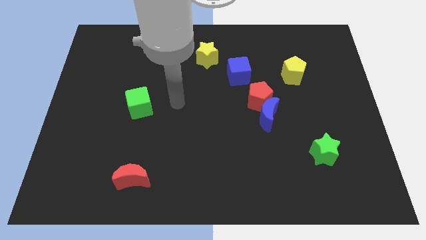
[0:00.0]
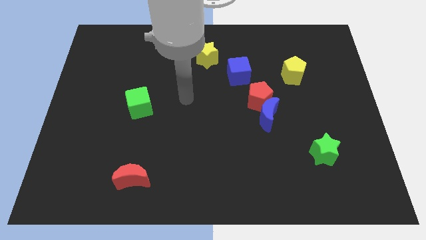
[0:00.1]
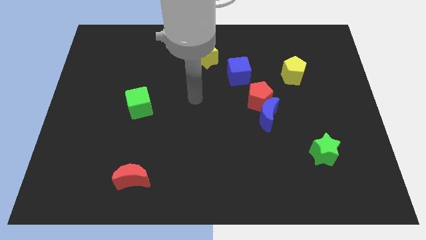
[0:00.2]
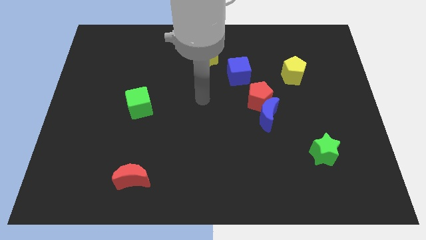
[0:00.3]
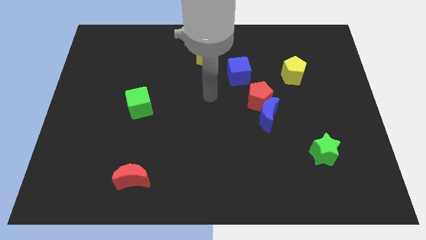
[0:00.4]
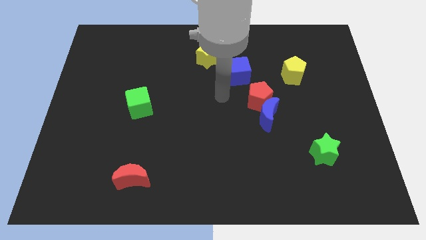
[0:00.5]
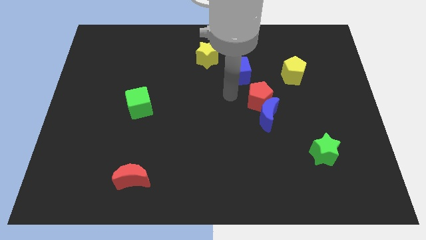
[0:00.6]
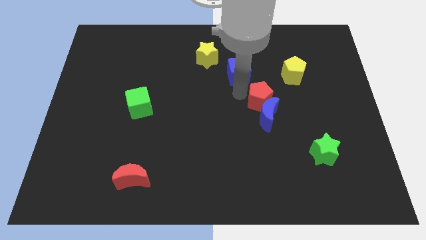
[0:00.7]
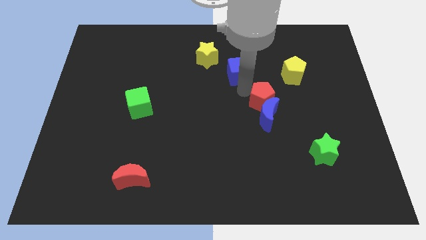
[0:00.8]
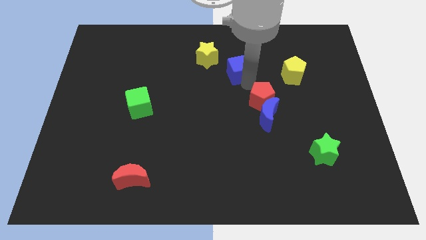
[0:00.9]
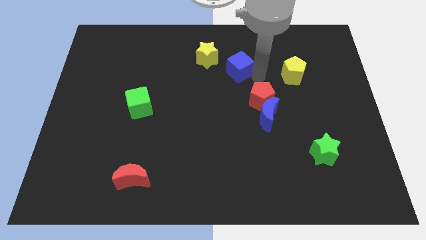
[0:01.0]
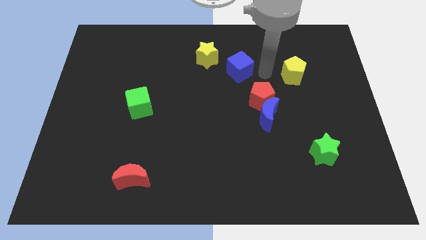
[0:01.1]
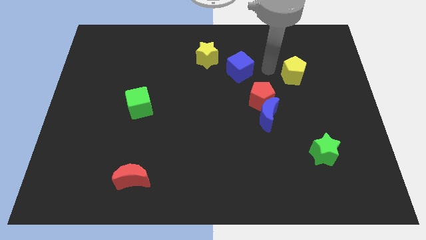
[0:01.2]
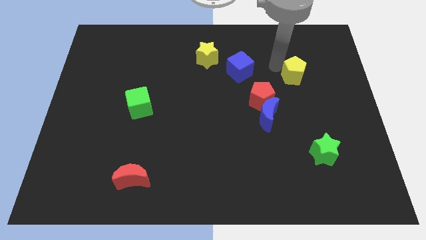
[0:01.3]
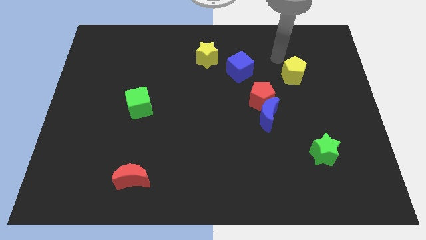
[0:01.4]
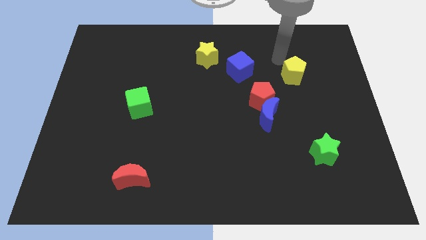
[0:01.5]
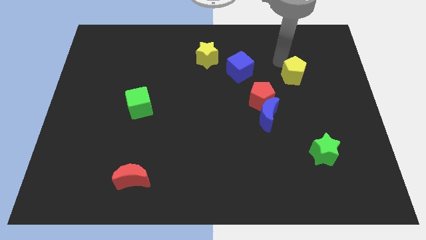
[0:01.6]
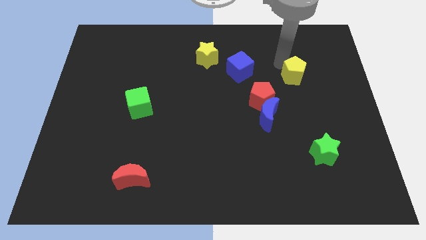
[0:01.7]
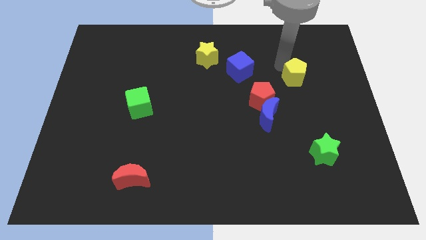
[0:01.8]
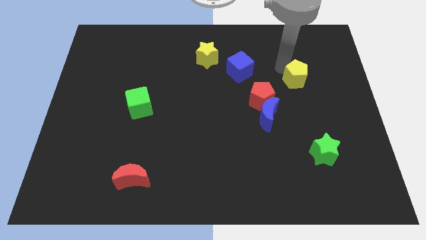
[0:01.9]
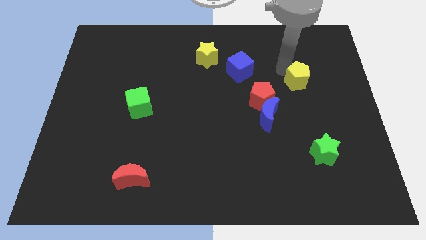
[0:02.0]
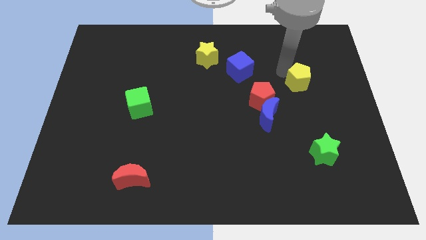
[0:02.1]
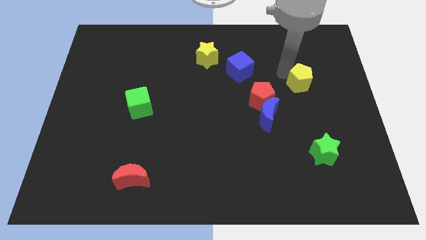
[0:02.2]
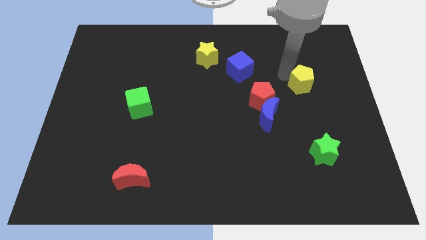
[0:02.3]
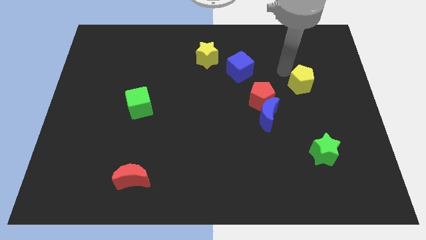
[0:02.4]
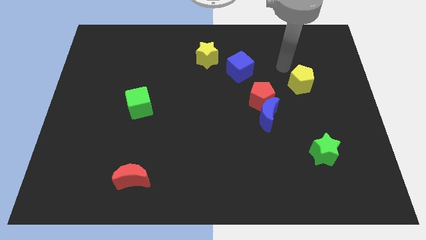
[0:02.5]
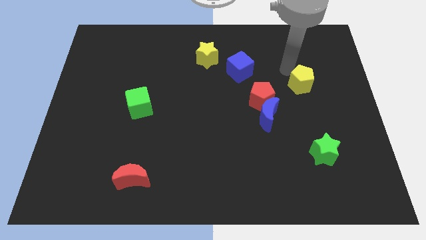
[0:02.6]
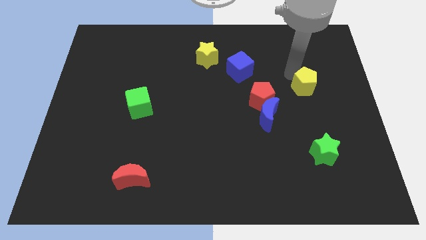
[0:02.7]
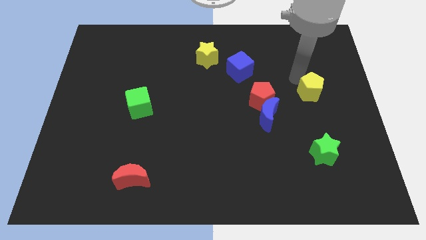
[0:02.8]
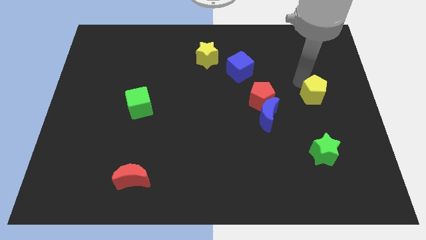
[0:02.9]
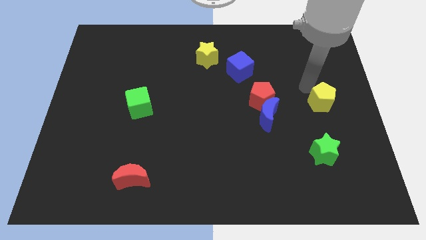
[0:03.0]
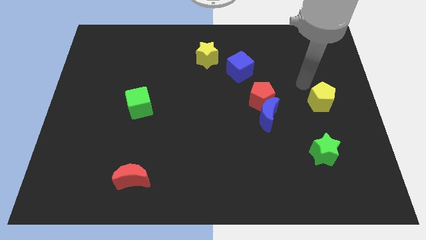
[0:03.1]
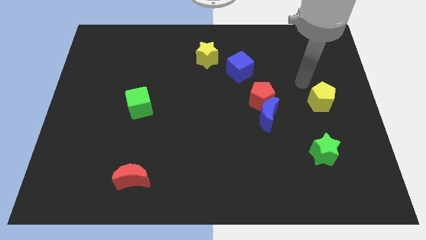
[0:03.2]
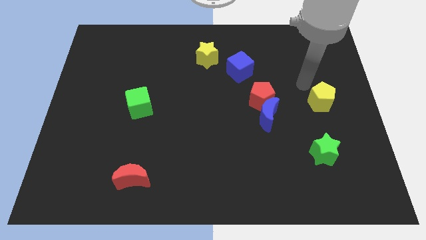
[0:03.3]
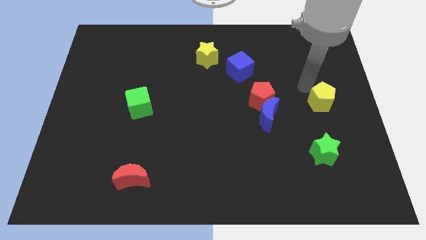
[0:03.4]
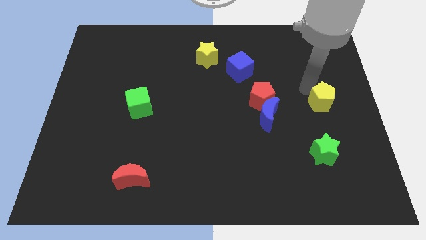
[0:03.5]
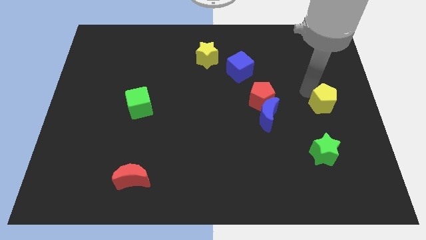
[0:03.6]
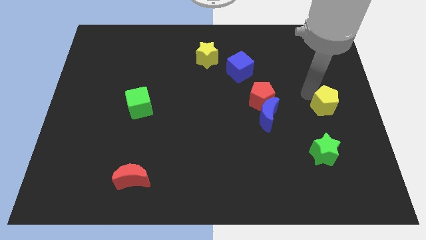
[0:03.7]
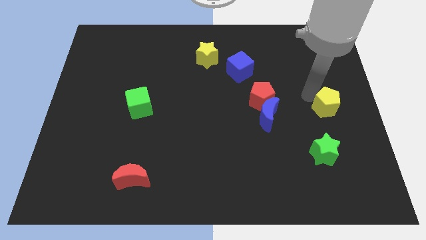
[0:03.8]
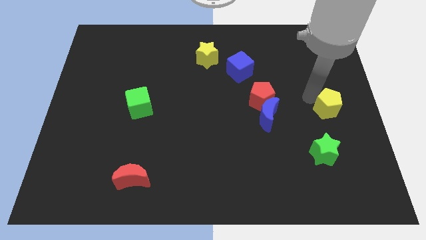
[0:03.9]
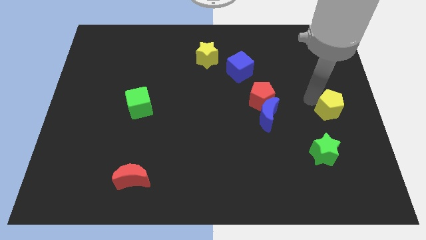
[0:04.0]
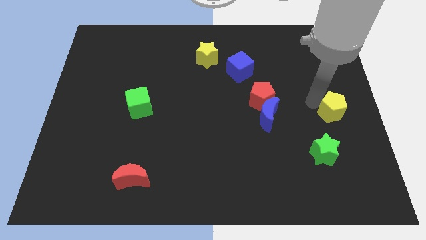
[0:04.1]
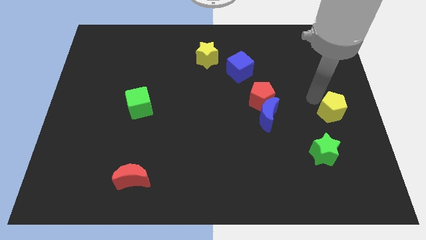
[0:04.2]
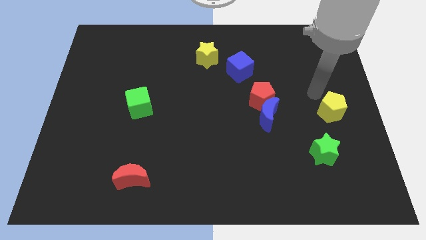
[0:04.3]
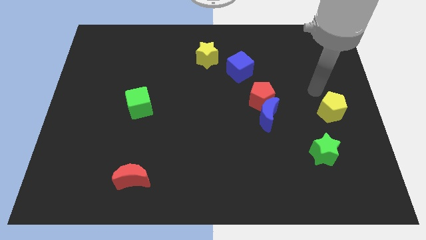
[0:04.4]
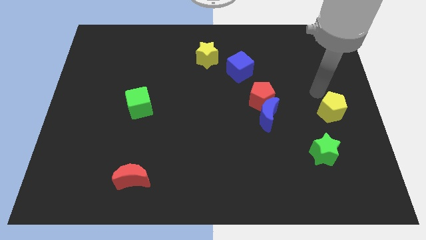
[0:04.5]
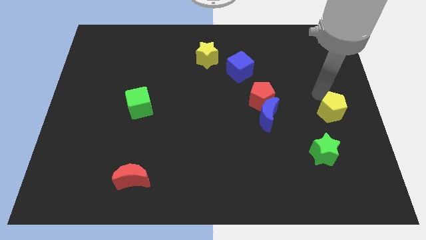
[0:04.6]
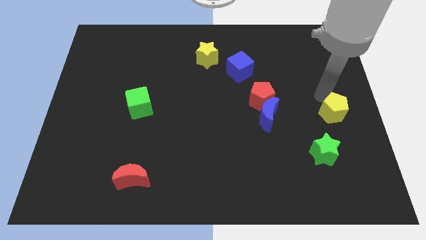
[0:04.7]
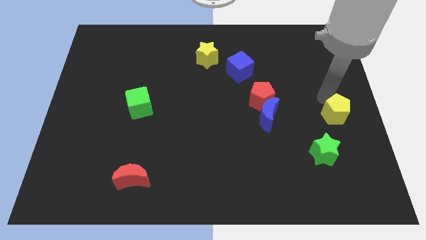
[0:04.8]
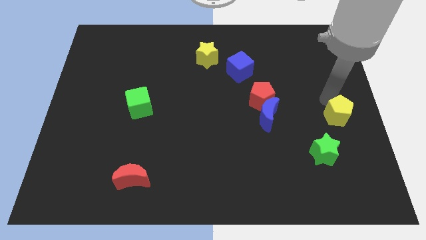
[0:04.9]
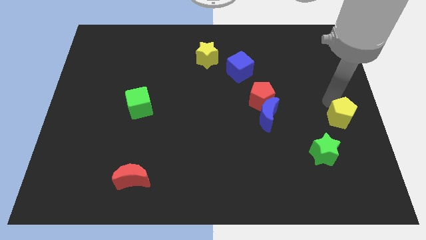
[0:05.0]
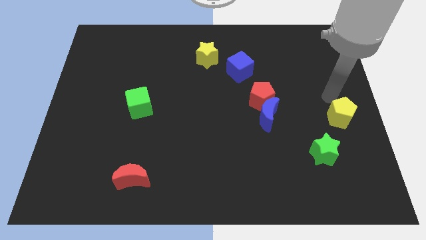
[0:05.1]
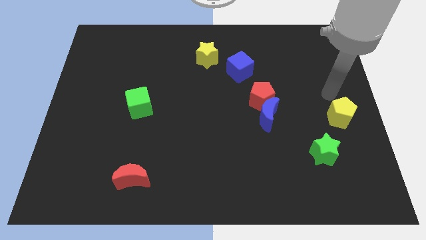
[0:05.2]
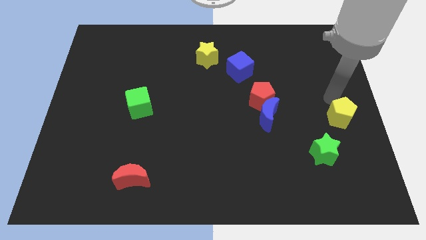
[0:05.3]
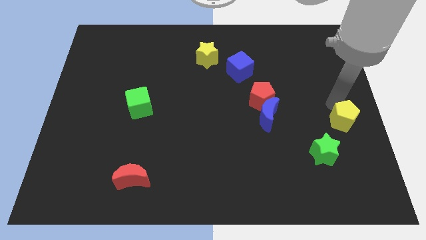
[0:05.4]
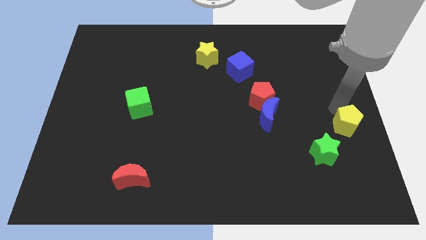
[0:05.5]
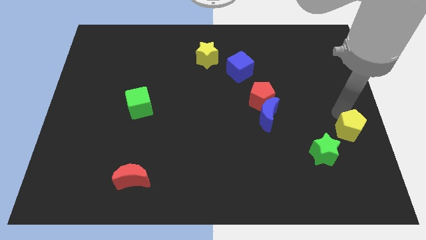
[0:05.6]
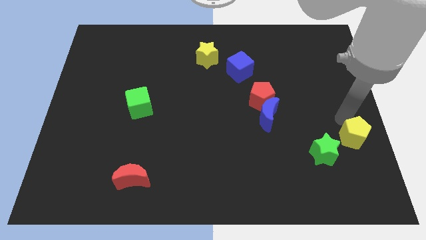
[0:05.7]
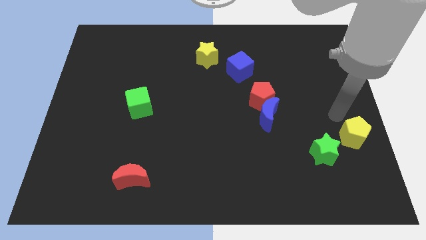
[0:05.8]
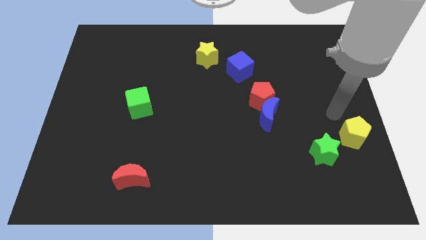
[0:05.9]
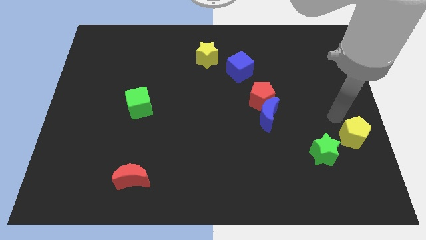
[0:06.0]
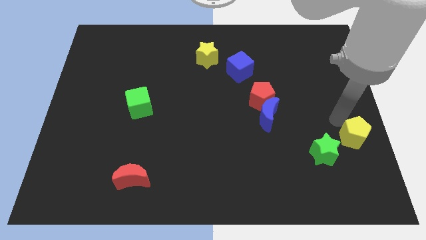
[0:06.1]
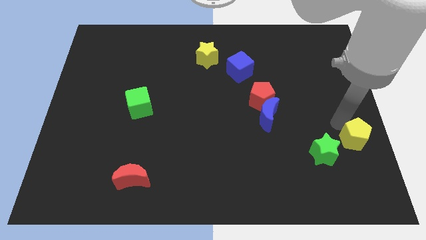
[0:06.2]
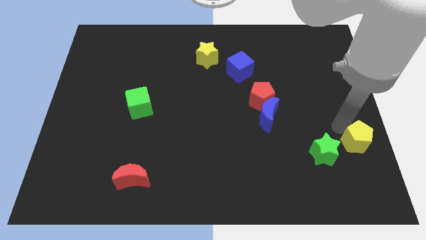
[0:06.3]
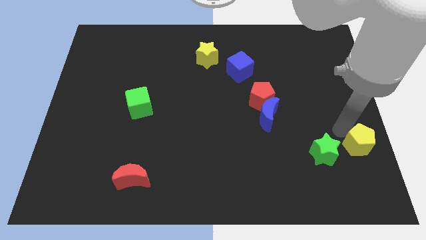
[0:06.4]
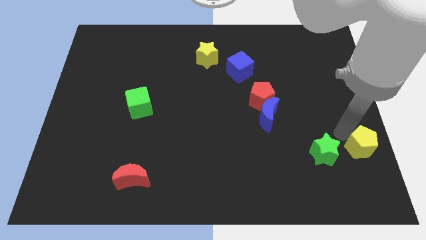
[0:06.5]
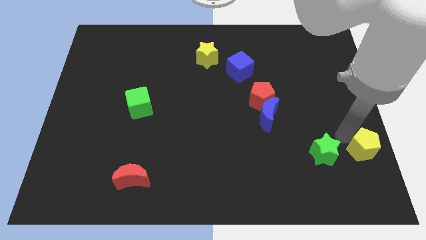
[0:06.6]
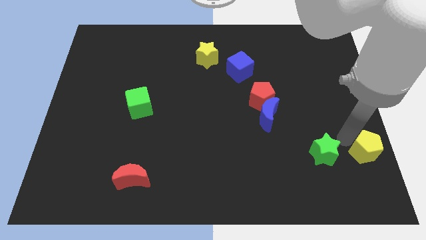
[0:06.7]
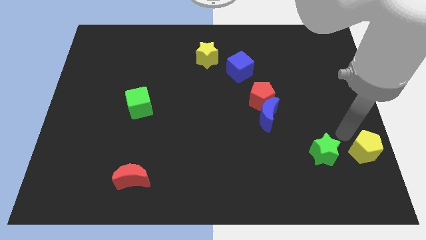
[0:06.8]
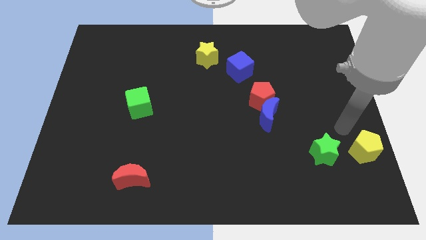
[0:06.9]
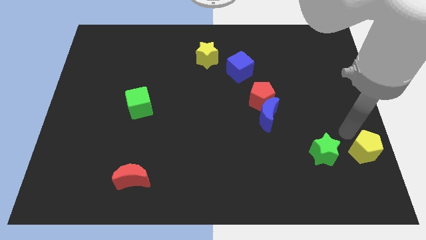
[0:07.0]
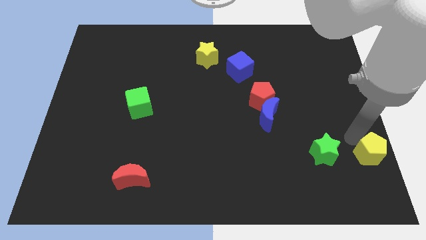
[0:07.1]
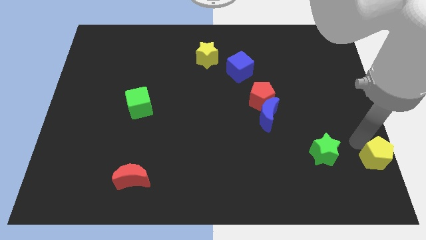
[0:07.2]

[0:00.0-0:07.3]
put the yellow pentagon to the lower right corner

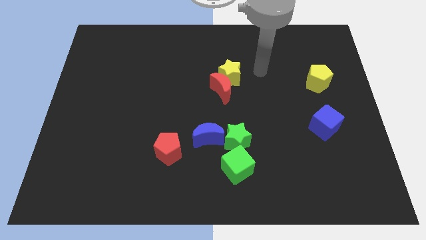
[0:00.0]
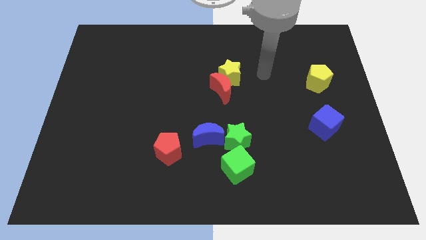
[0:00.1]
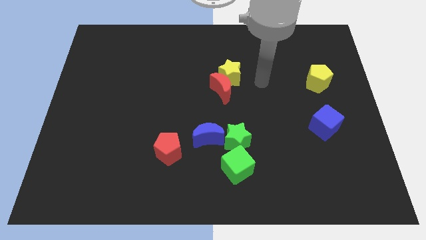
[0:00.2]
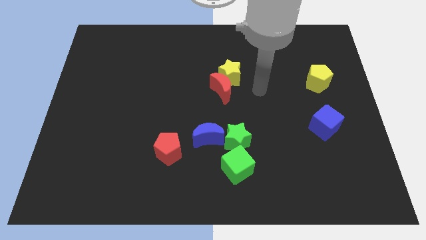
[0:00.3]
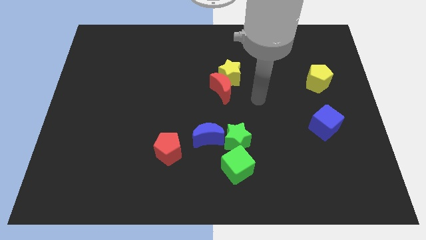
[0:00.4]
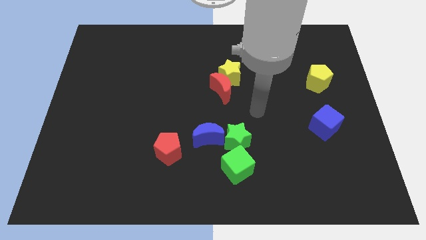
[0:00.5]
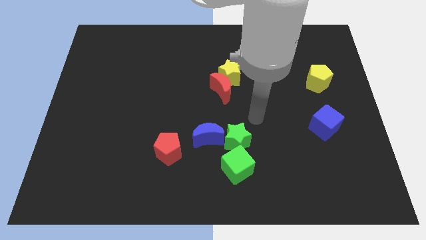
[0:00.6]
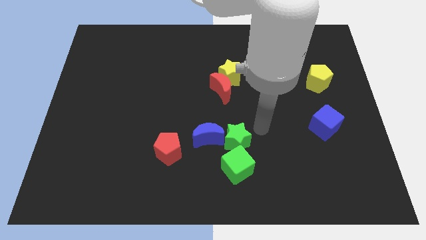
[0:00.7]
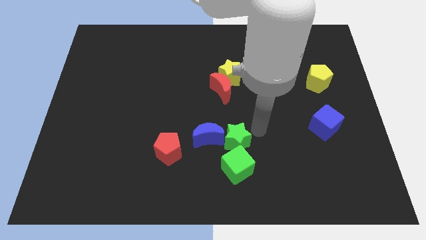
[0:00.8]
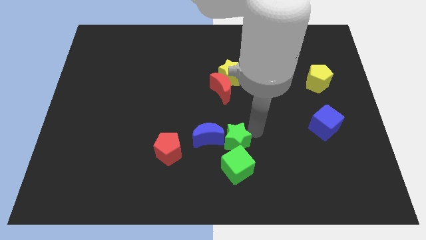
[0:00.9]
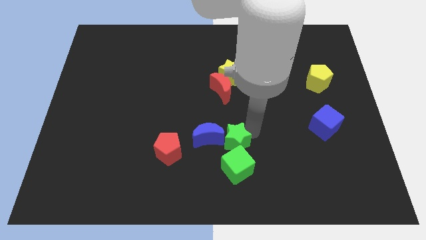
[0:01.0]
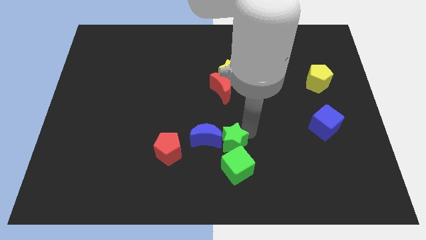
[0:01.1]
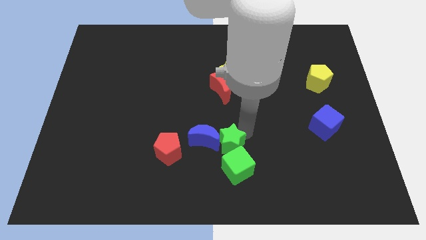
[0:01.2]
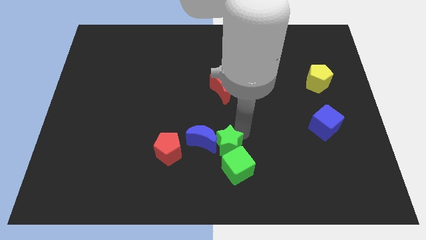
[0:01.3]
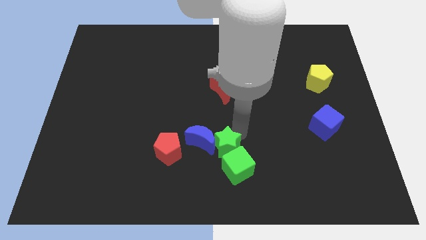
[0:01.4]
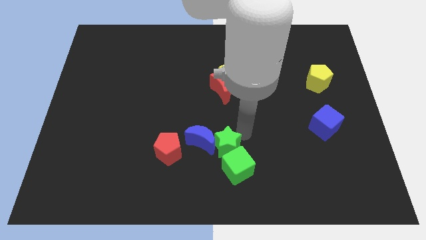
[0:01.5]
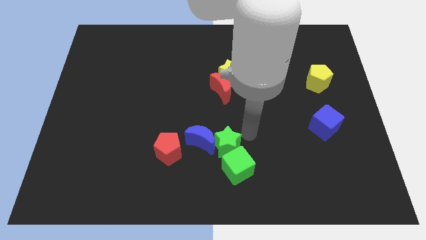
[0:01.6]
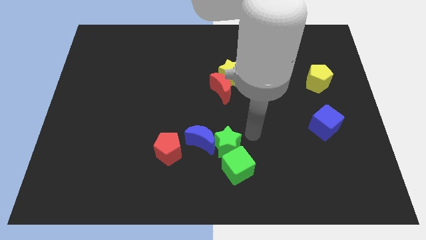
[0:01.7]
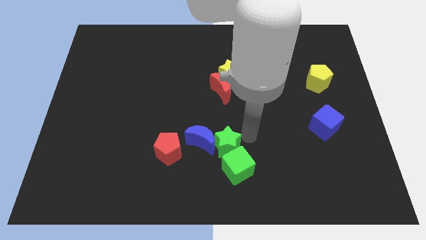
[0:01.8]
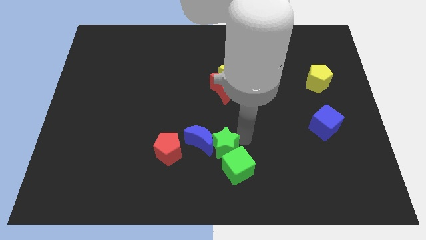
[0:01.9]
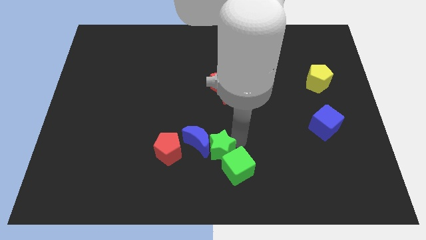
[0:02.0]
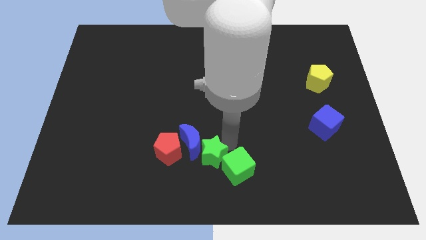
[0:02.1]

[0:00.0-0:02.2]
move the green star to the bottom side
